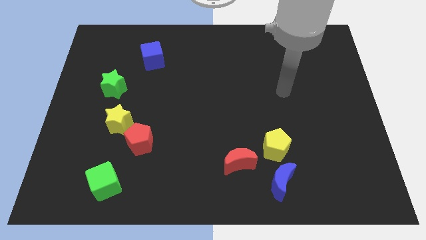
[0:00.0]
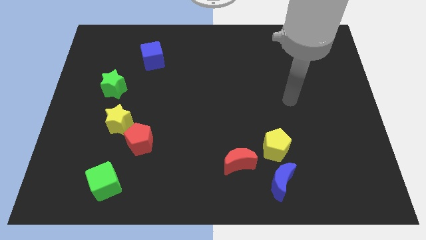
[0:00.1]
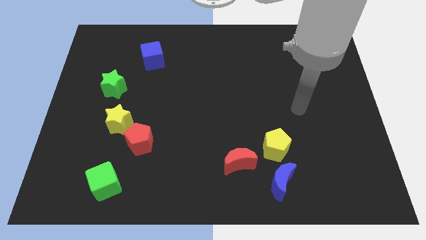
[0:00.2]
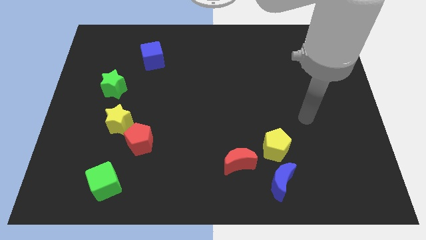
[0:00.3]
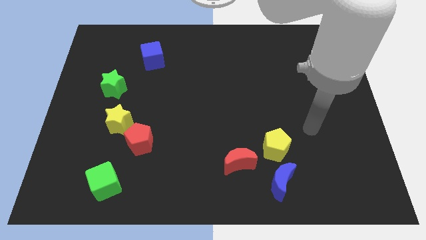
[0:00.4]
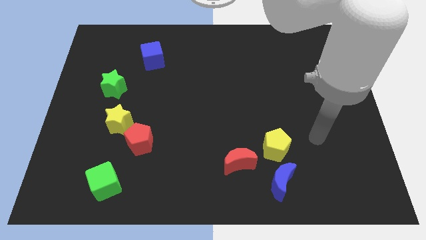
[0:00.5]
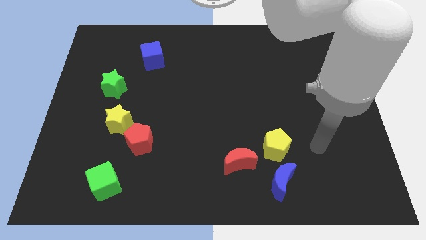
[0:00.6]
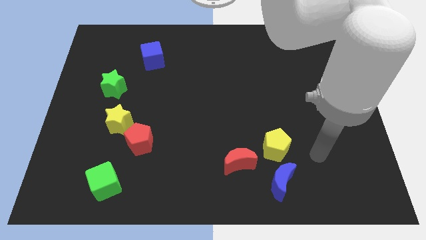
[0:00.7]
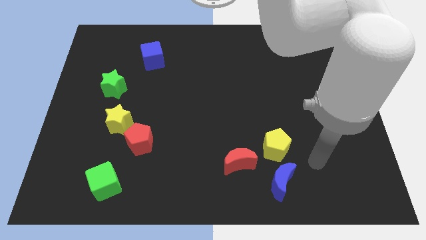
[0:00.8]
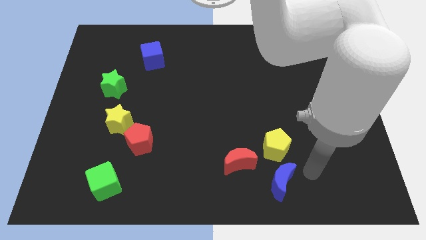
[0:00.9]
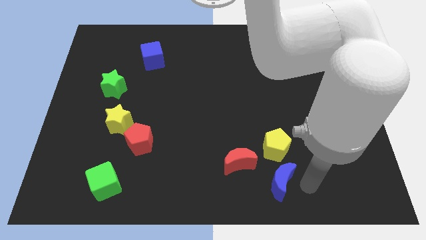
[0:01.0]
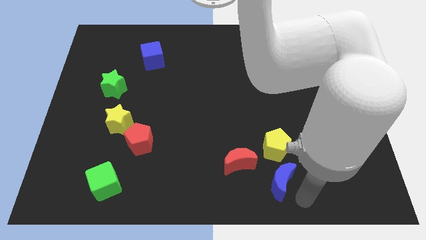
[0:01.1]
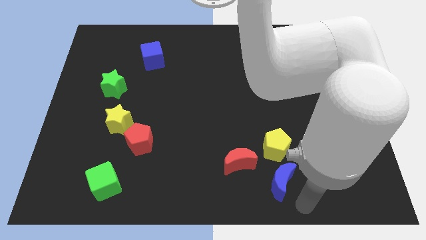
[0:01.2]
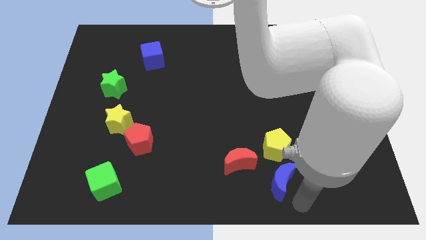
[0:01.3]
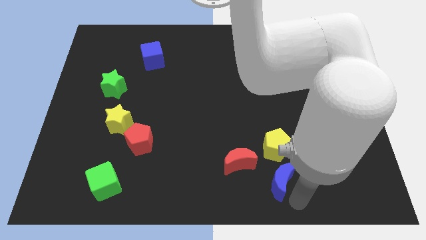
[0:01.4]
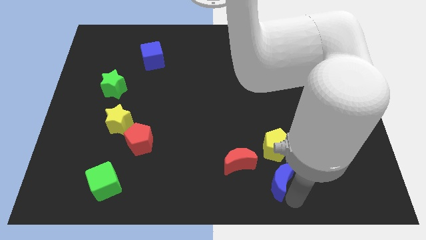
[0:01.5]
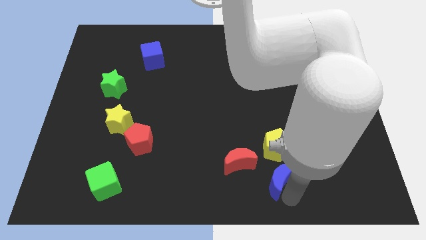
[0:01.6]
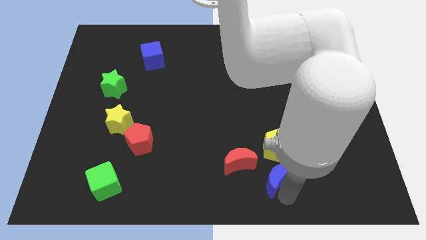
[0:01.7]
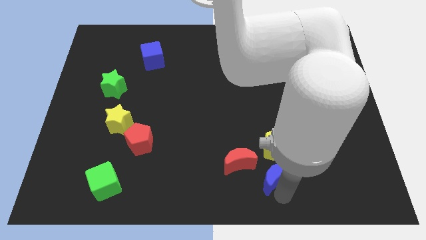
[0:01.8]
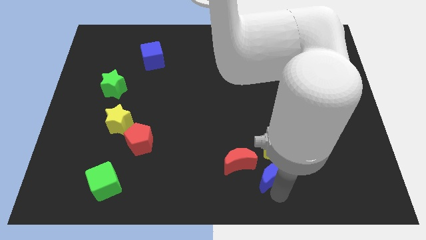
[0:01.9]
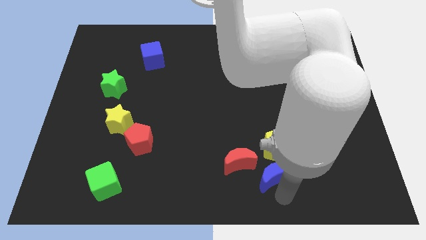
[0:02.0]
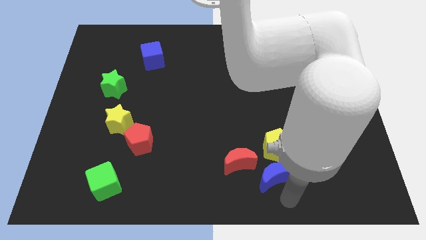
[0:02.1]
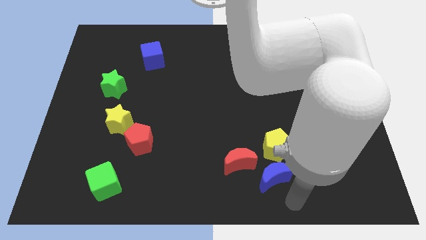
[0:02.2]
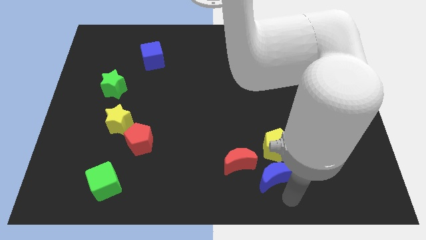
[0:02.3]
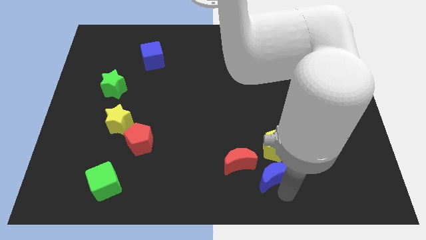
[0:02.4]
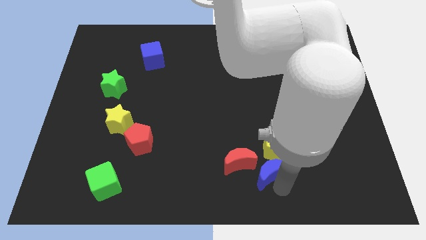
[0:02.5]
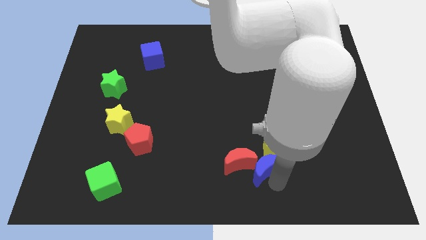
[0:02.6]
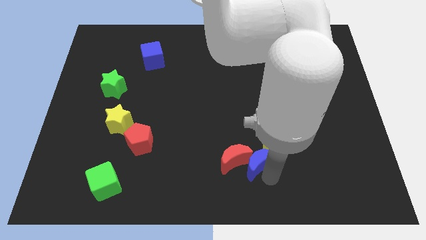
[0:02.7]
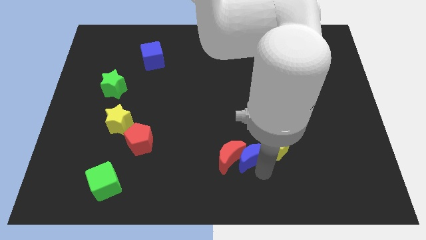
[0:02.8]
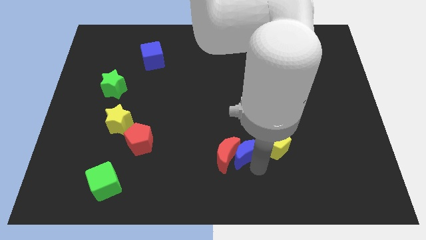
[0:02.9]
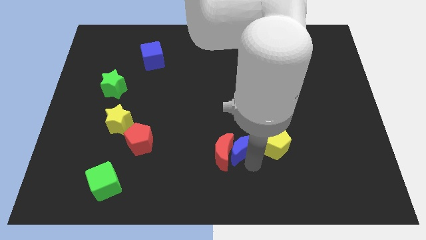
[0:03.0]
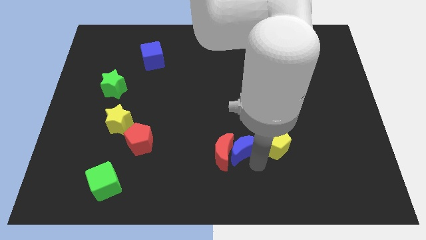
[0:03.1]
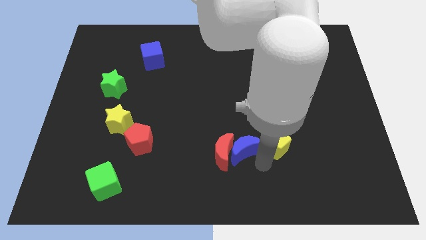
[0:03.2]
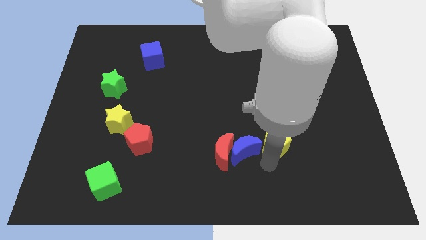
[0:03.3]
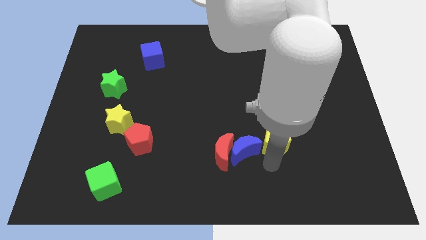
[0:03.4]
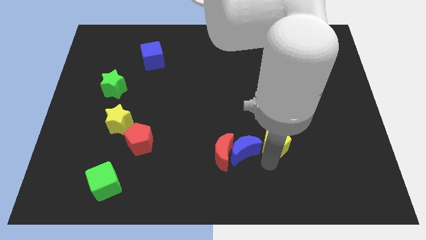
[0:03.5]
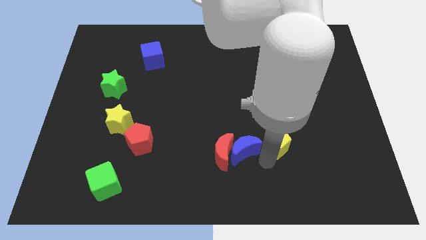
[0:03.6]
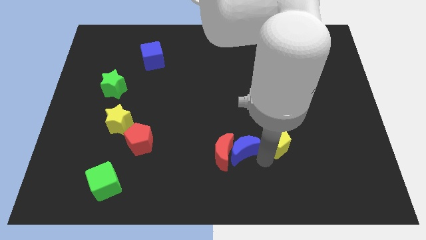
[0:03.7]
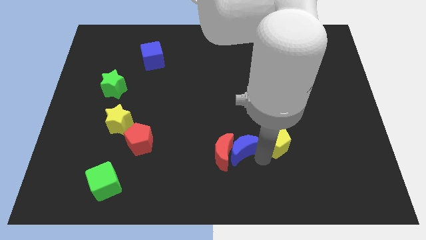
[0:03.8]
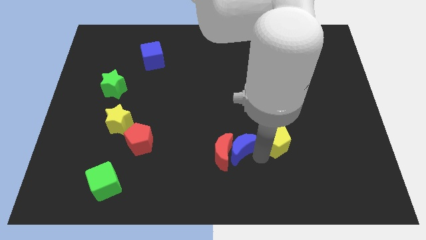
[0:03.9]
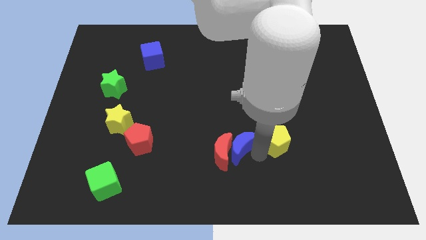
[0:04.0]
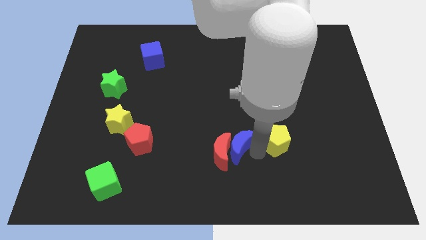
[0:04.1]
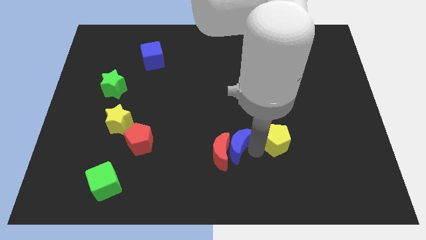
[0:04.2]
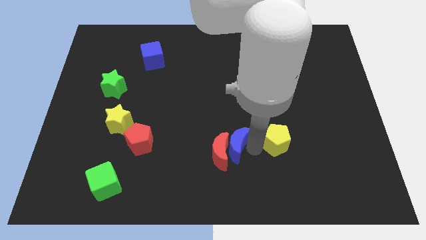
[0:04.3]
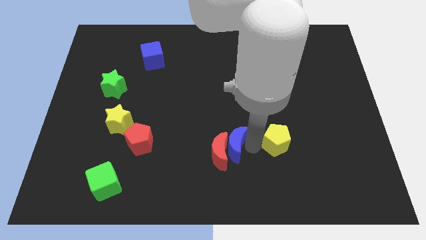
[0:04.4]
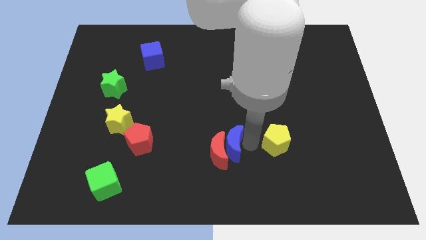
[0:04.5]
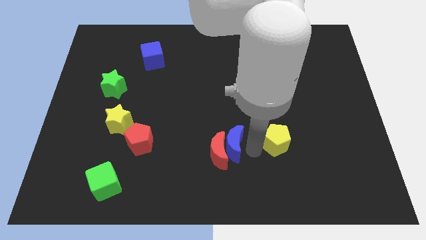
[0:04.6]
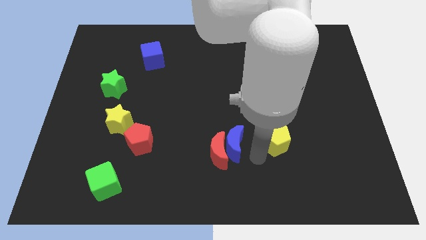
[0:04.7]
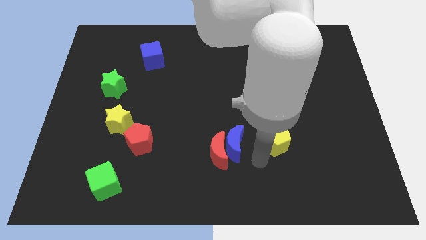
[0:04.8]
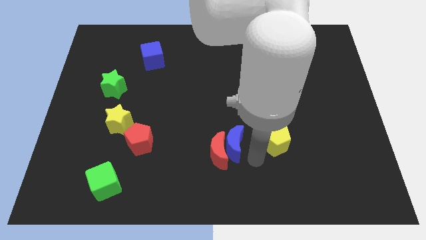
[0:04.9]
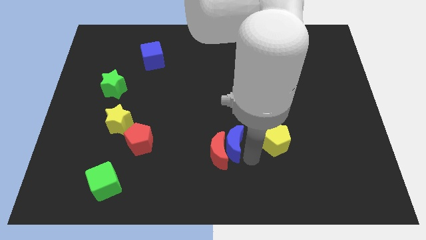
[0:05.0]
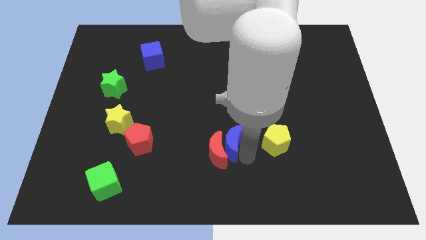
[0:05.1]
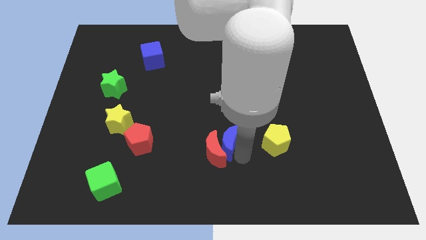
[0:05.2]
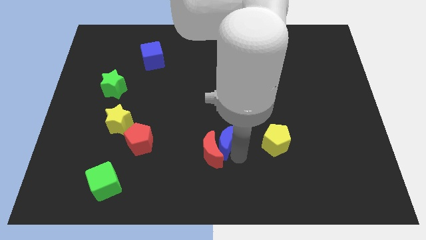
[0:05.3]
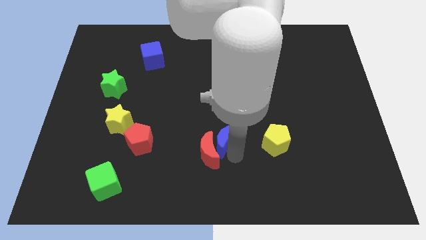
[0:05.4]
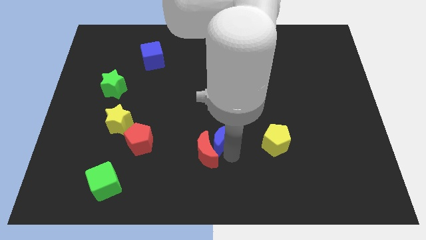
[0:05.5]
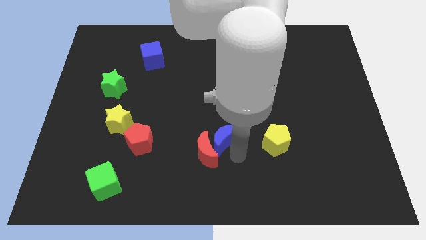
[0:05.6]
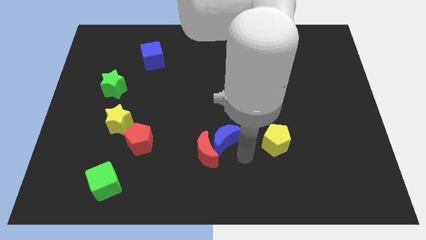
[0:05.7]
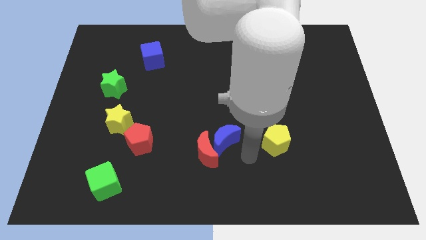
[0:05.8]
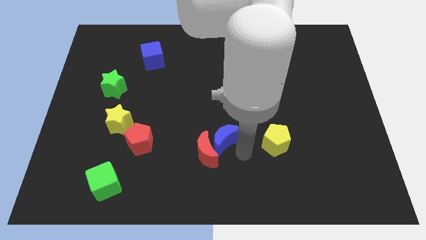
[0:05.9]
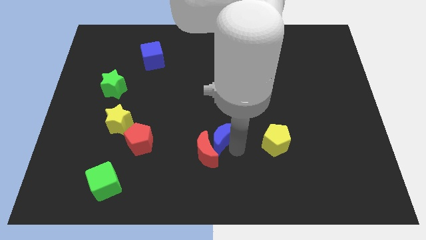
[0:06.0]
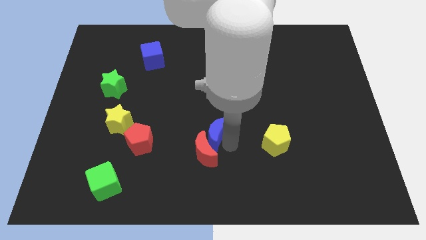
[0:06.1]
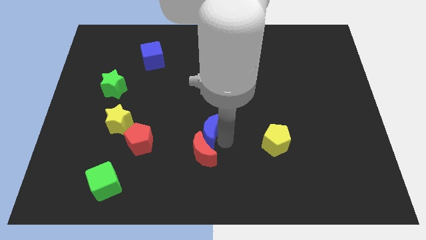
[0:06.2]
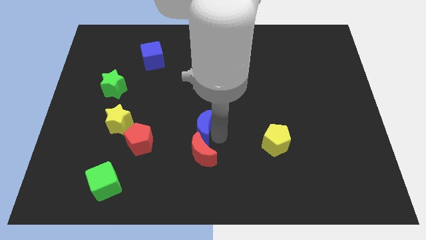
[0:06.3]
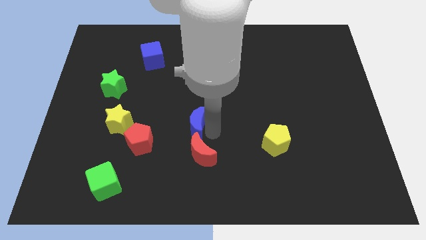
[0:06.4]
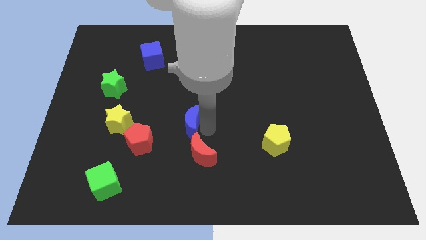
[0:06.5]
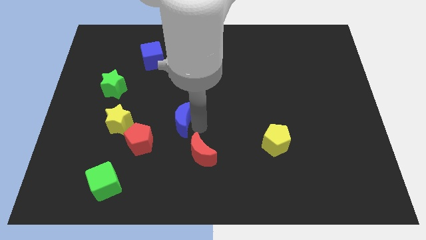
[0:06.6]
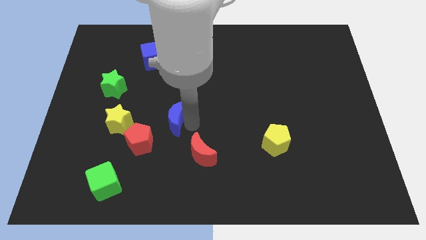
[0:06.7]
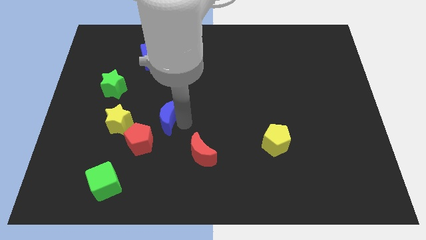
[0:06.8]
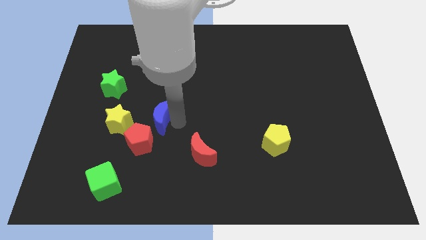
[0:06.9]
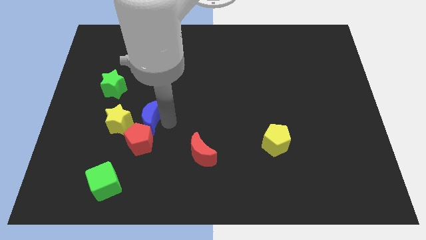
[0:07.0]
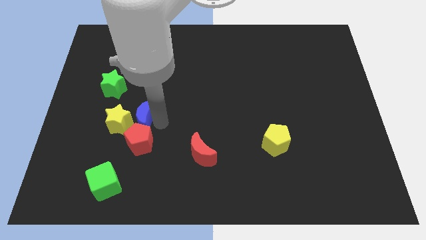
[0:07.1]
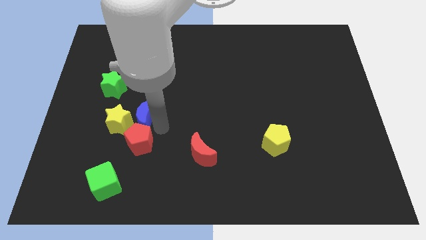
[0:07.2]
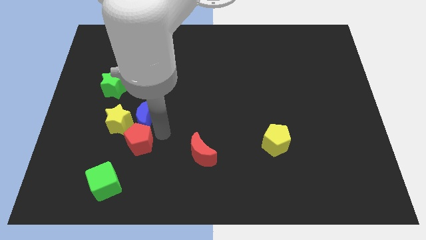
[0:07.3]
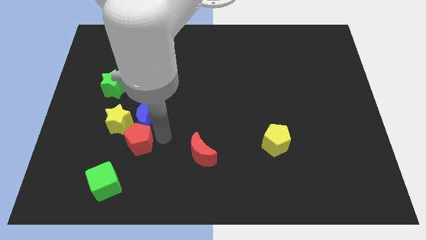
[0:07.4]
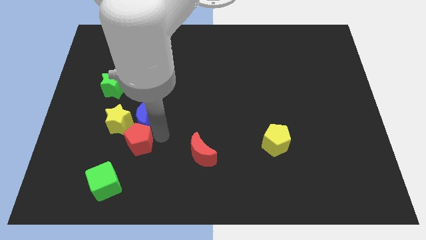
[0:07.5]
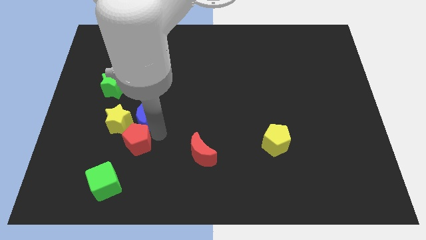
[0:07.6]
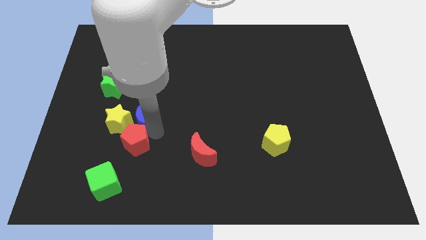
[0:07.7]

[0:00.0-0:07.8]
slide the blue moon to the bottom right side of the green star

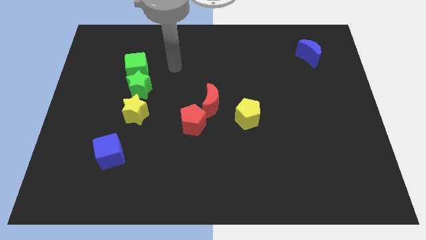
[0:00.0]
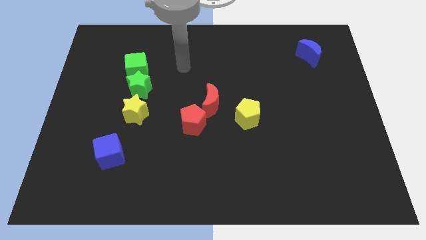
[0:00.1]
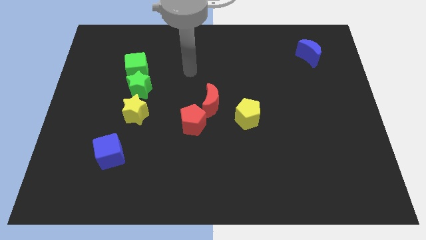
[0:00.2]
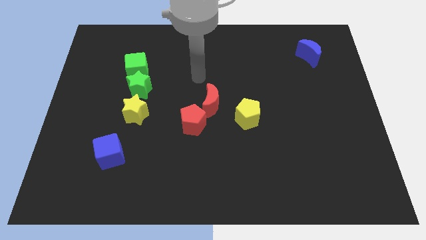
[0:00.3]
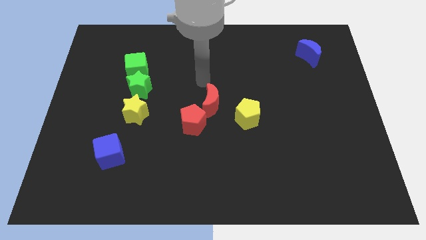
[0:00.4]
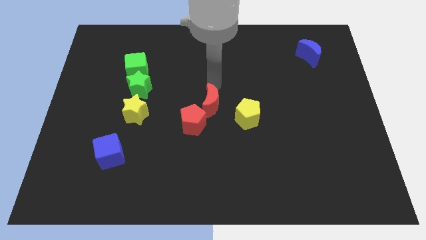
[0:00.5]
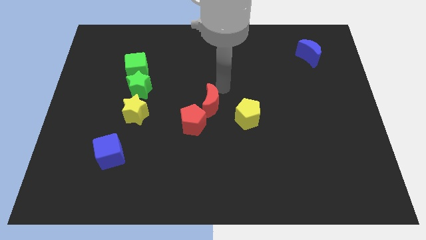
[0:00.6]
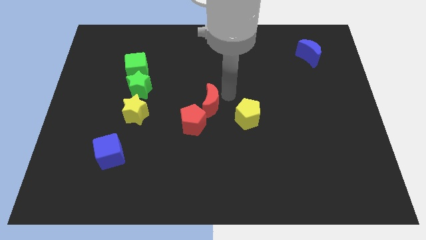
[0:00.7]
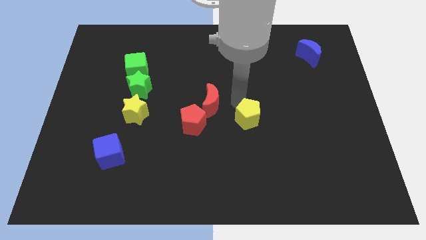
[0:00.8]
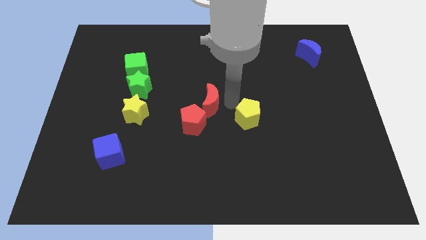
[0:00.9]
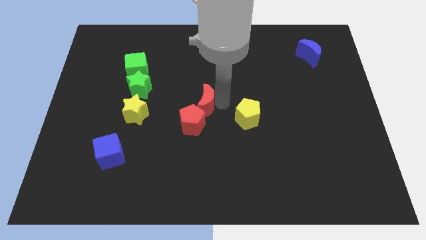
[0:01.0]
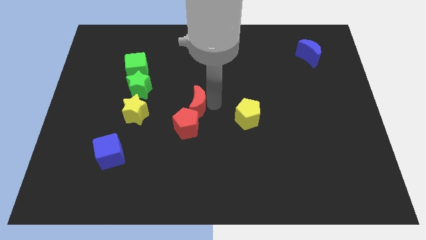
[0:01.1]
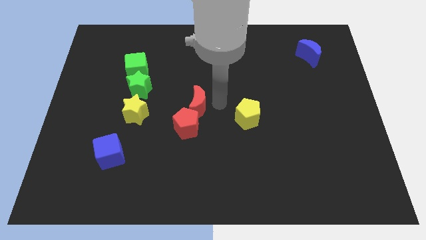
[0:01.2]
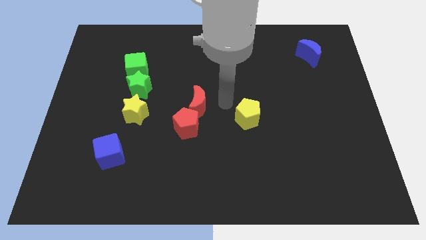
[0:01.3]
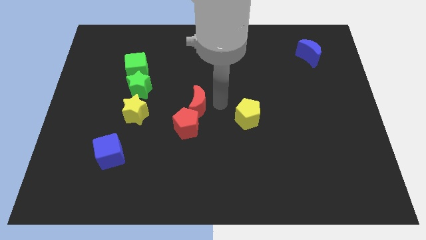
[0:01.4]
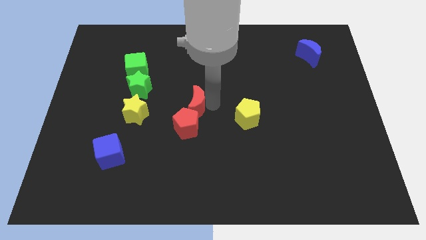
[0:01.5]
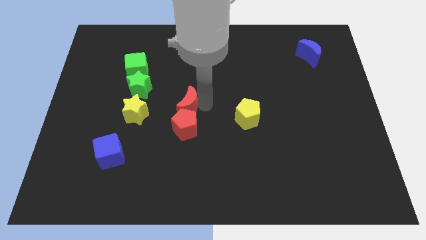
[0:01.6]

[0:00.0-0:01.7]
move the red moon diagonally up and to the left of the red pentagon
